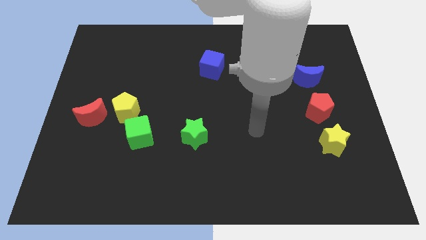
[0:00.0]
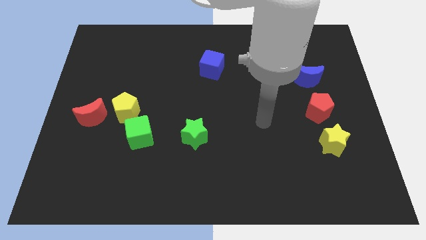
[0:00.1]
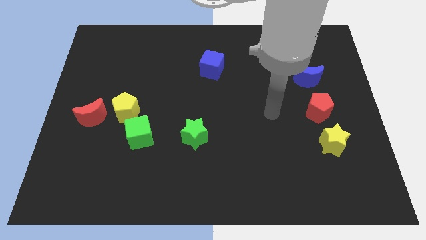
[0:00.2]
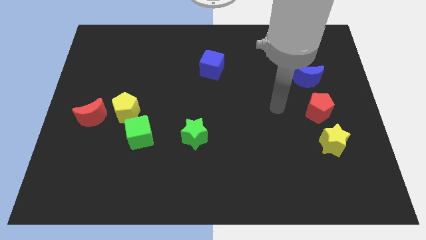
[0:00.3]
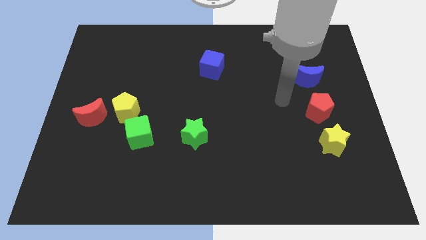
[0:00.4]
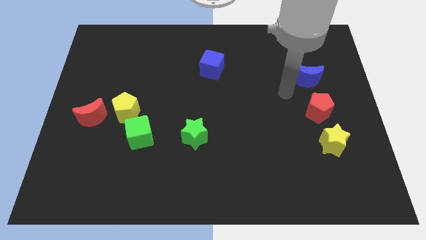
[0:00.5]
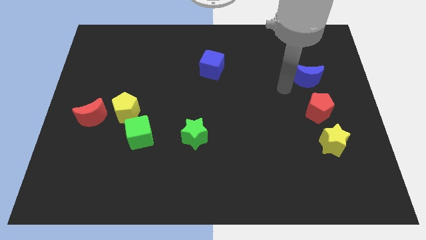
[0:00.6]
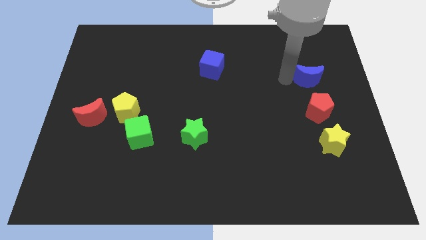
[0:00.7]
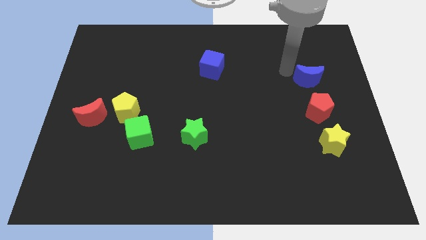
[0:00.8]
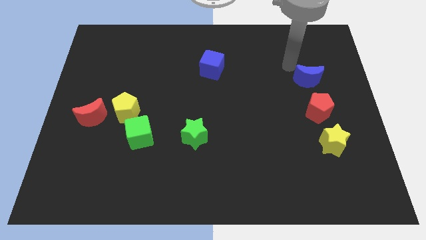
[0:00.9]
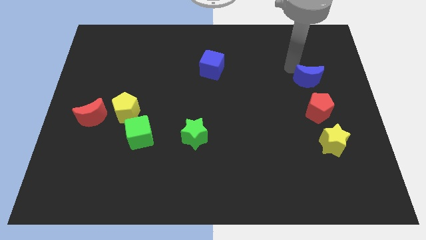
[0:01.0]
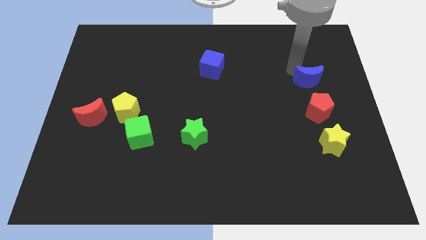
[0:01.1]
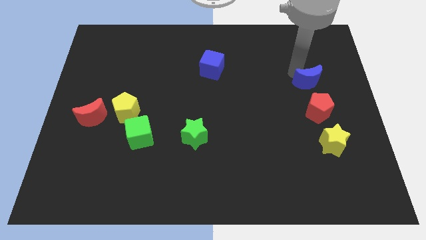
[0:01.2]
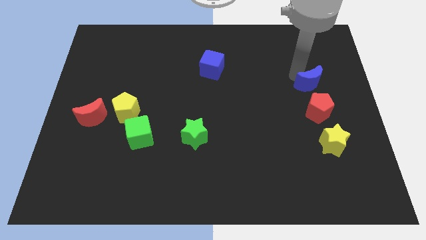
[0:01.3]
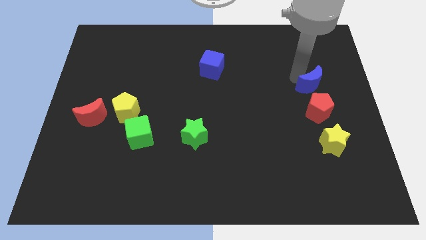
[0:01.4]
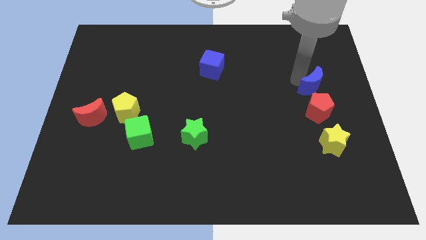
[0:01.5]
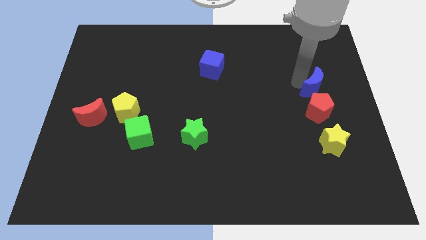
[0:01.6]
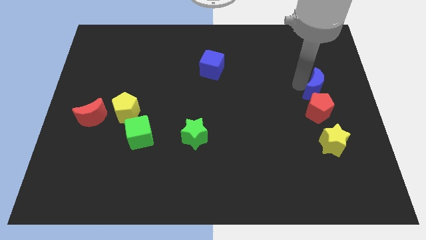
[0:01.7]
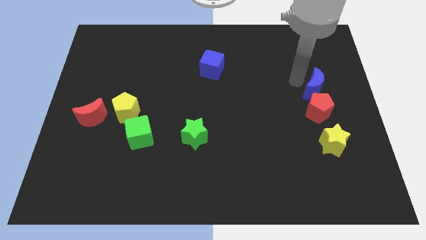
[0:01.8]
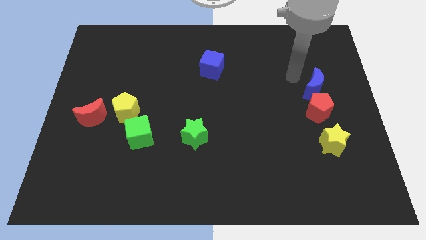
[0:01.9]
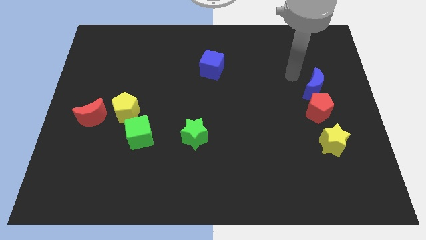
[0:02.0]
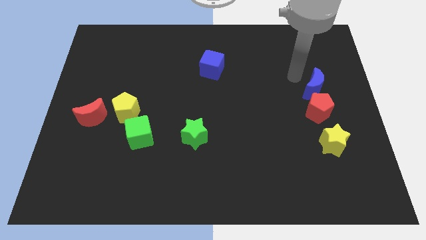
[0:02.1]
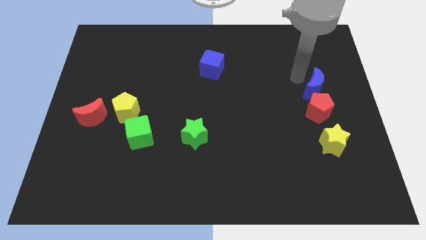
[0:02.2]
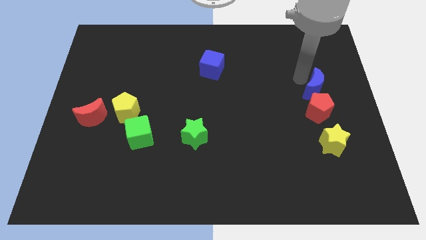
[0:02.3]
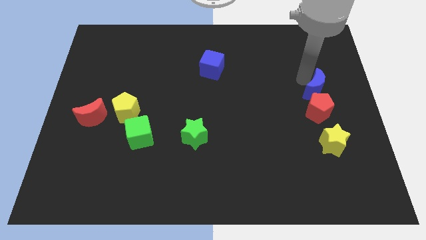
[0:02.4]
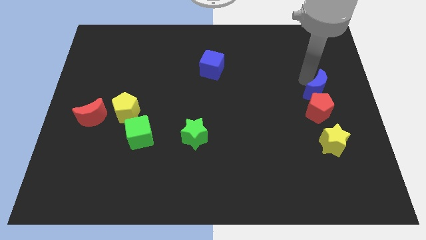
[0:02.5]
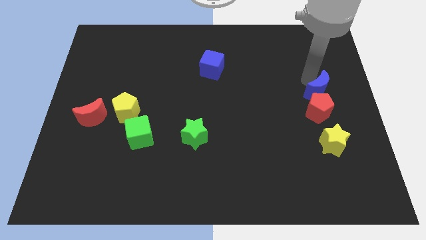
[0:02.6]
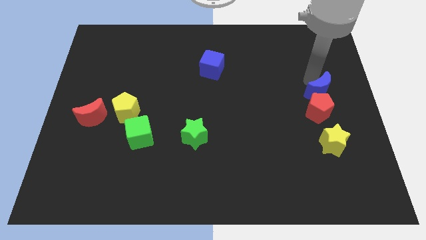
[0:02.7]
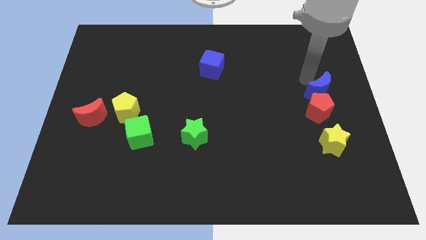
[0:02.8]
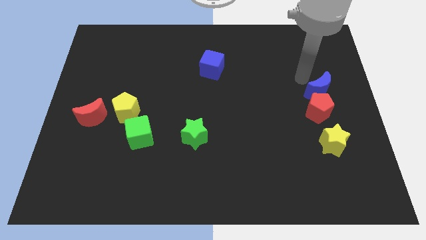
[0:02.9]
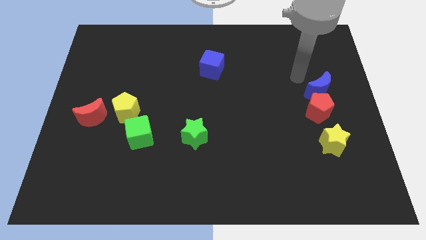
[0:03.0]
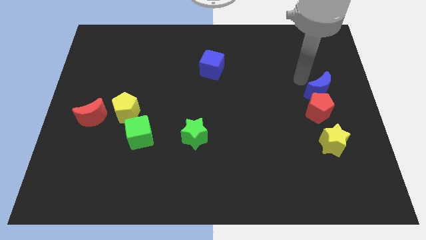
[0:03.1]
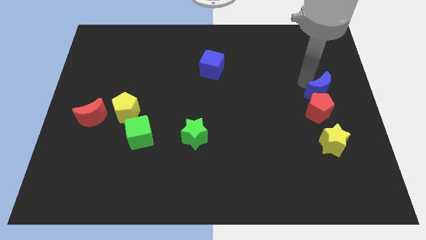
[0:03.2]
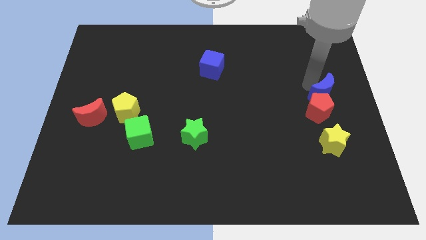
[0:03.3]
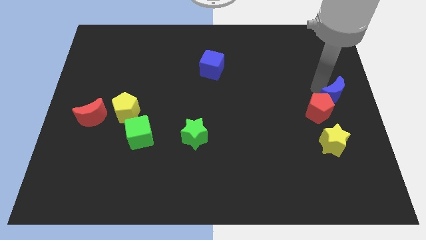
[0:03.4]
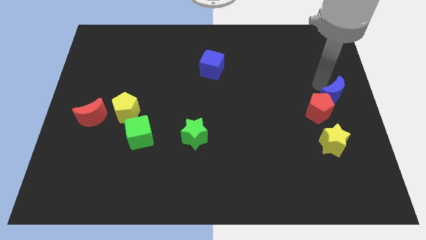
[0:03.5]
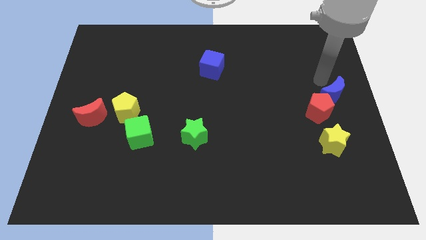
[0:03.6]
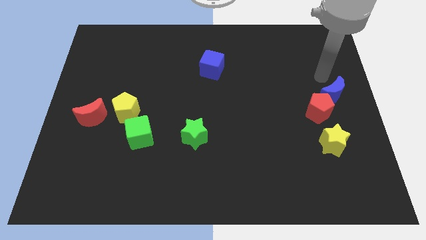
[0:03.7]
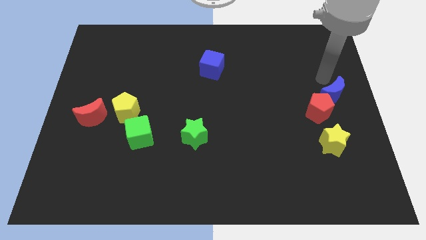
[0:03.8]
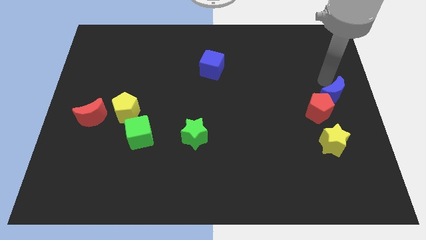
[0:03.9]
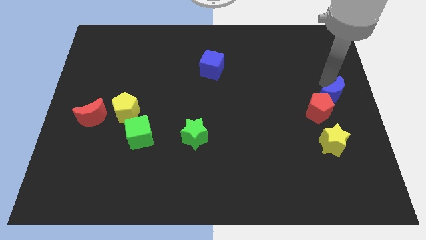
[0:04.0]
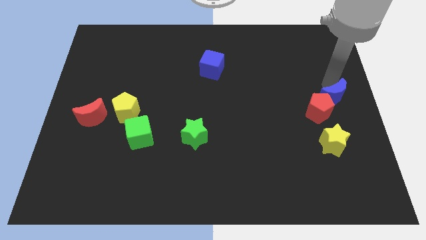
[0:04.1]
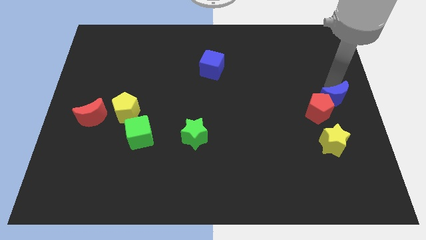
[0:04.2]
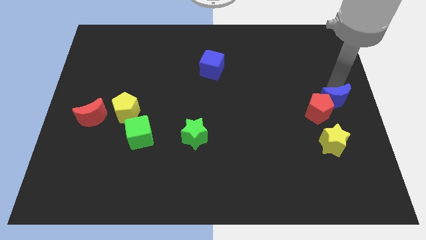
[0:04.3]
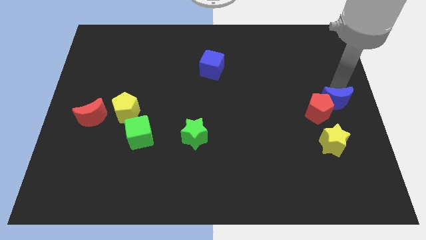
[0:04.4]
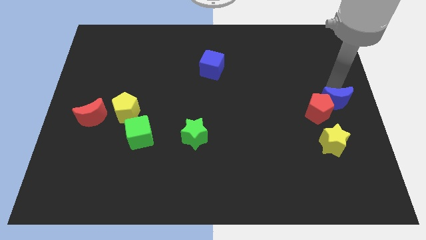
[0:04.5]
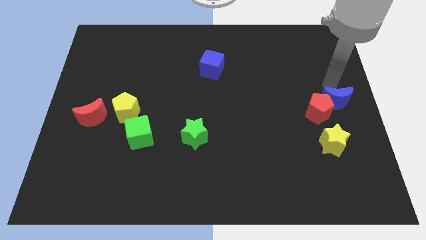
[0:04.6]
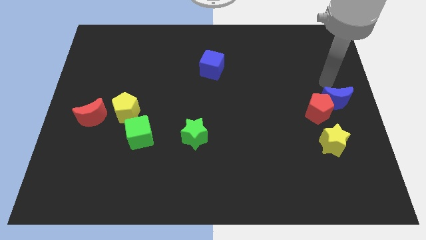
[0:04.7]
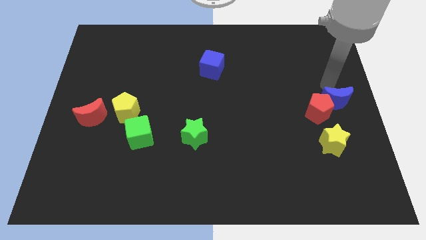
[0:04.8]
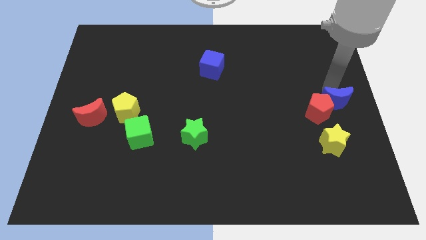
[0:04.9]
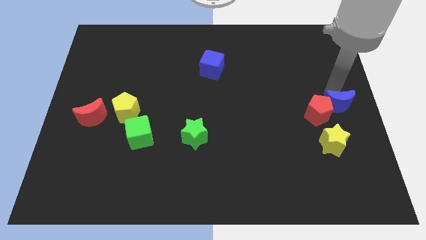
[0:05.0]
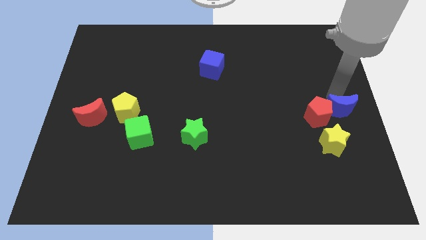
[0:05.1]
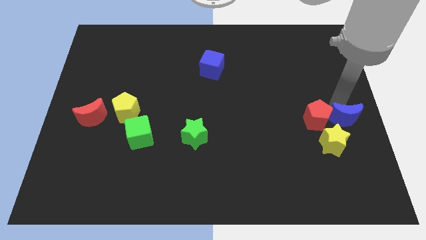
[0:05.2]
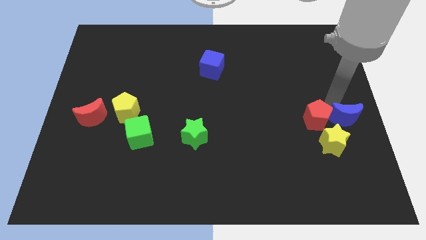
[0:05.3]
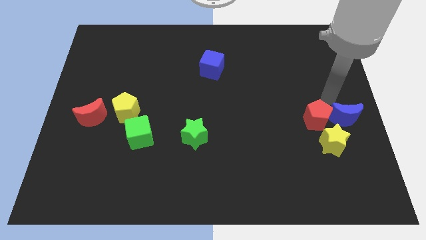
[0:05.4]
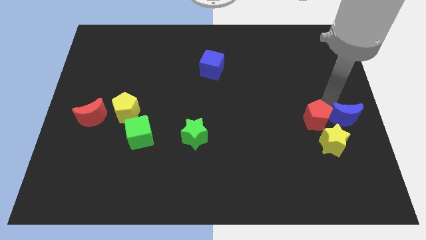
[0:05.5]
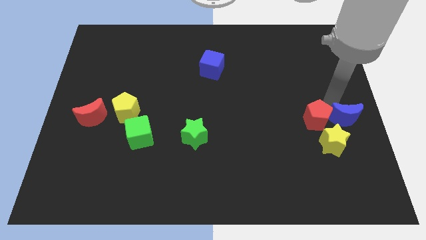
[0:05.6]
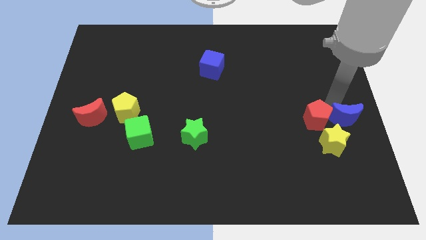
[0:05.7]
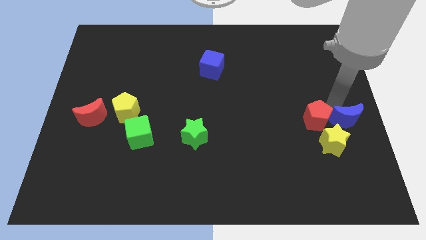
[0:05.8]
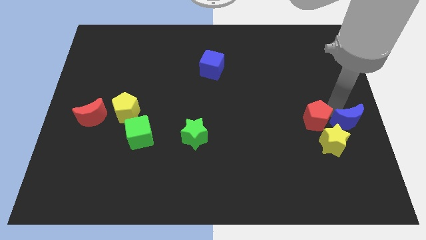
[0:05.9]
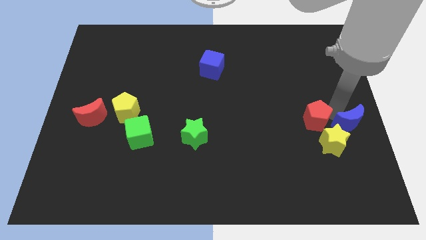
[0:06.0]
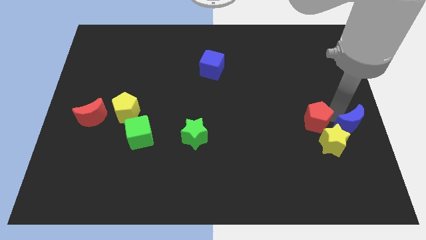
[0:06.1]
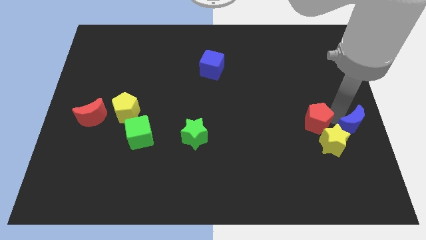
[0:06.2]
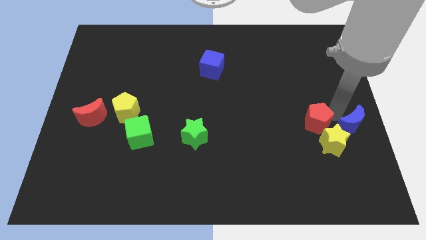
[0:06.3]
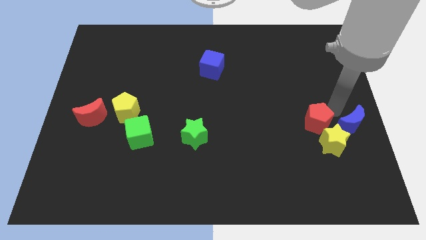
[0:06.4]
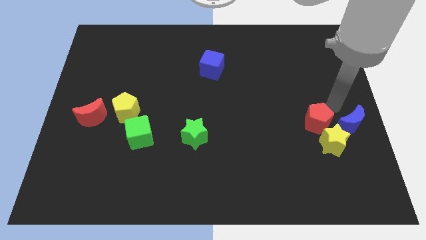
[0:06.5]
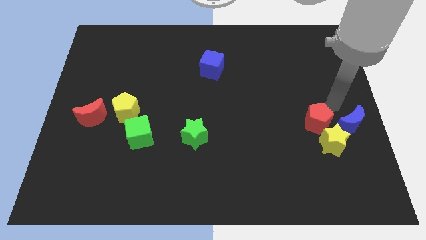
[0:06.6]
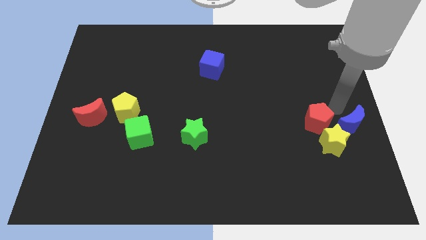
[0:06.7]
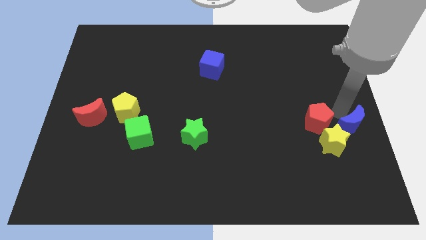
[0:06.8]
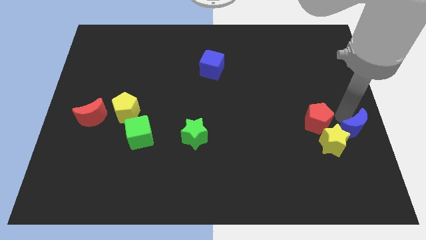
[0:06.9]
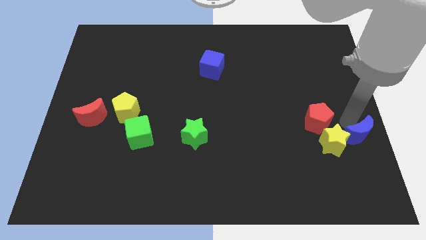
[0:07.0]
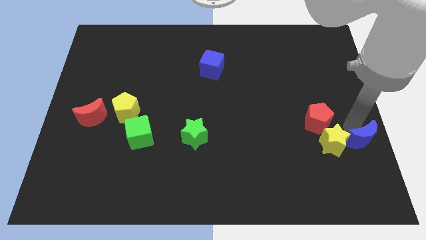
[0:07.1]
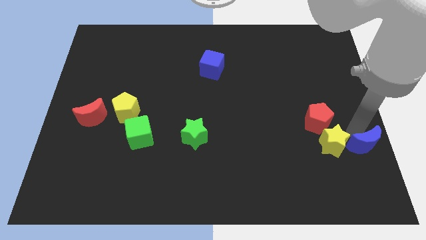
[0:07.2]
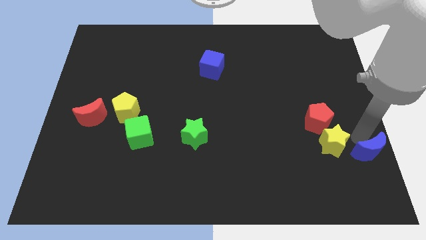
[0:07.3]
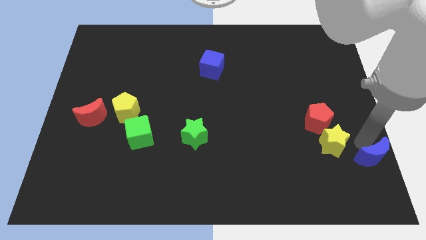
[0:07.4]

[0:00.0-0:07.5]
put the blue moon to the bottom right of the board
